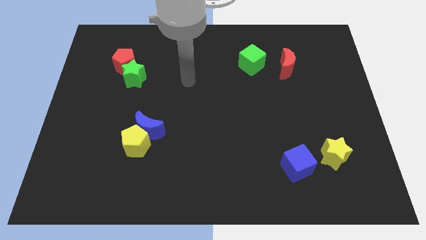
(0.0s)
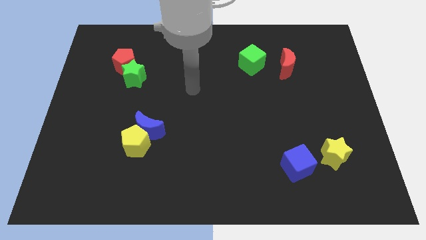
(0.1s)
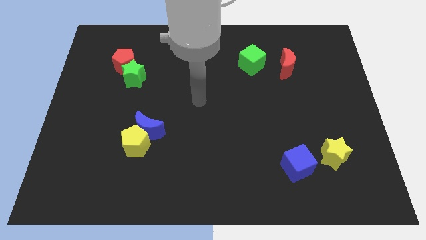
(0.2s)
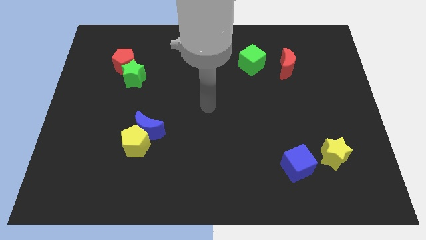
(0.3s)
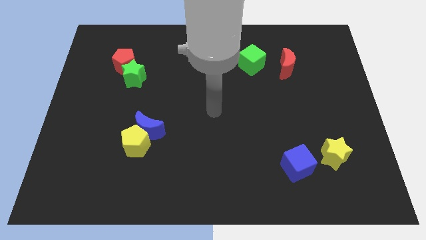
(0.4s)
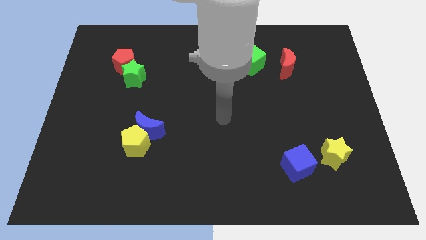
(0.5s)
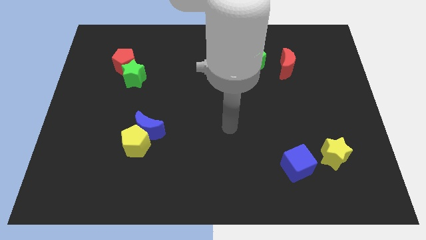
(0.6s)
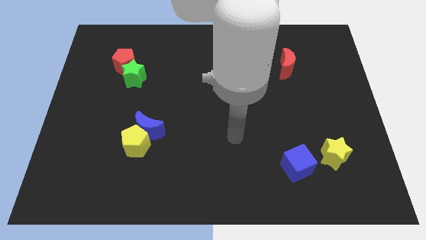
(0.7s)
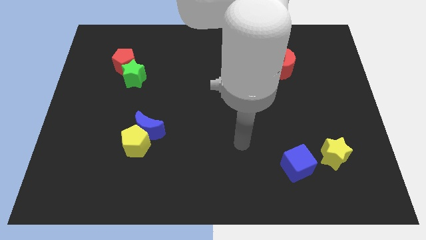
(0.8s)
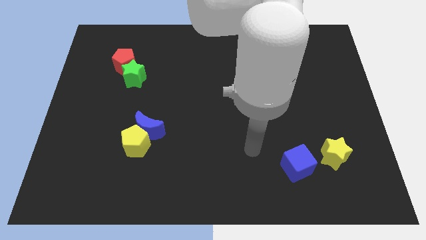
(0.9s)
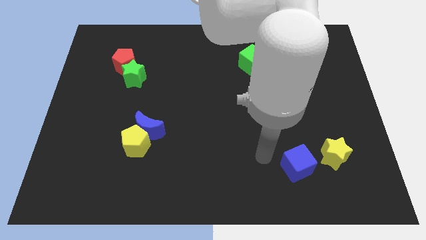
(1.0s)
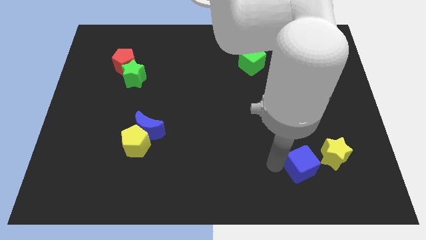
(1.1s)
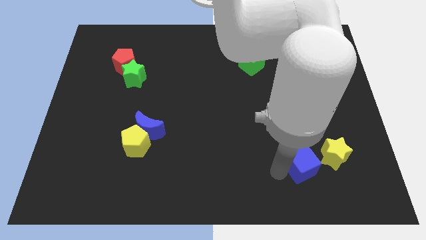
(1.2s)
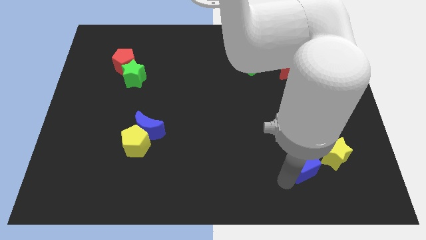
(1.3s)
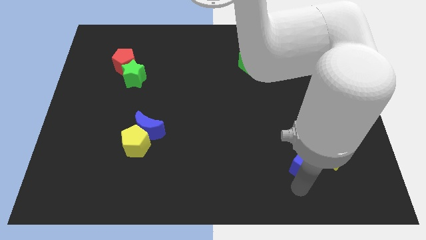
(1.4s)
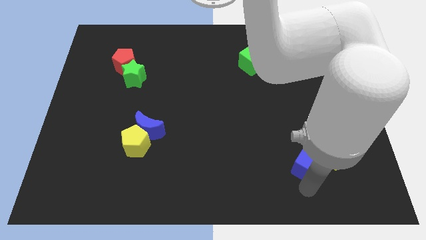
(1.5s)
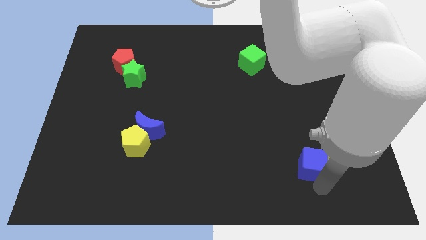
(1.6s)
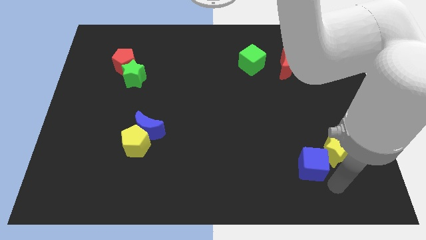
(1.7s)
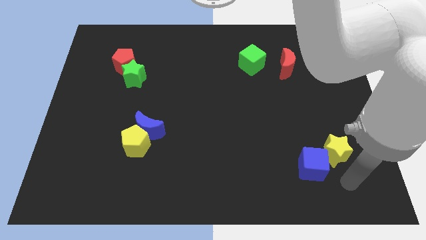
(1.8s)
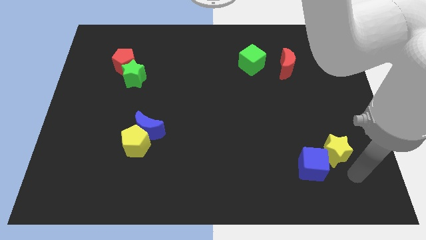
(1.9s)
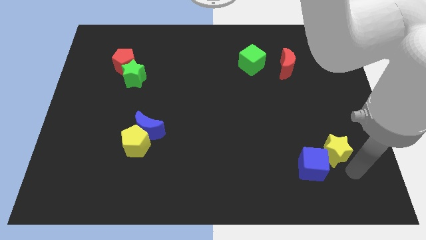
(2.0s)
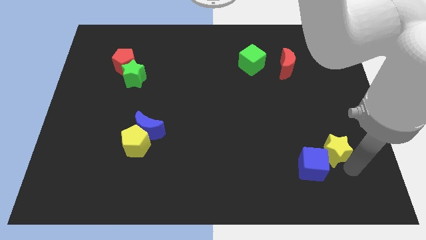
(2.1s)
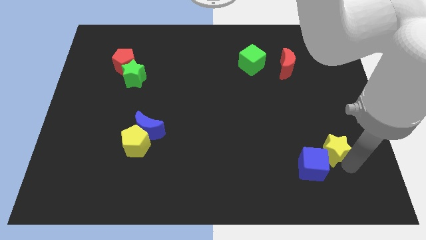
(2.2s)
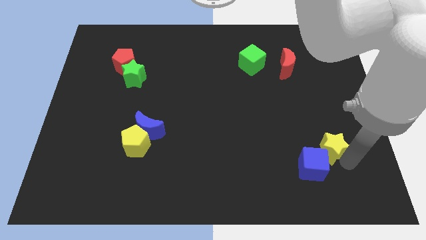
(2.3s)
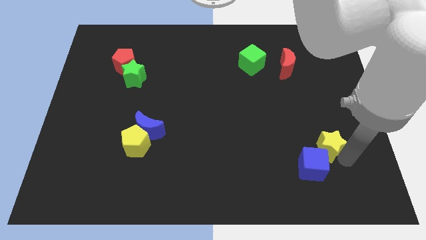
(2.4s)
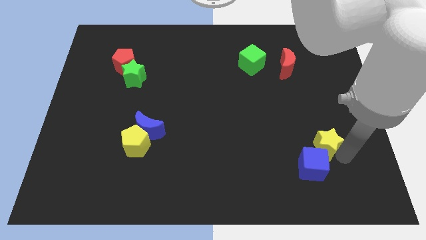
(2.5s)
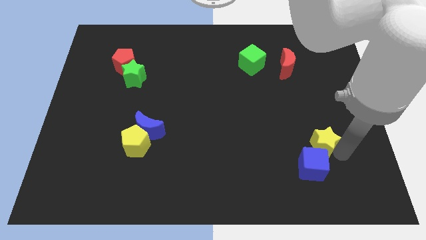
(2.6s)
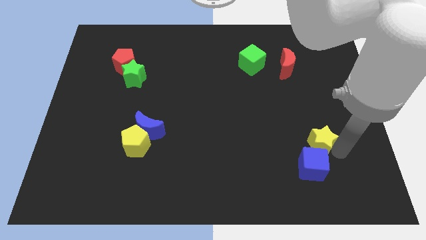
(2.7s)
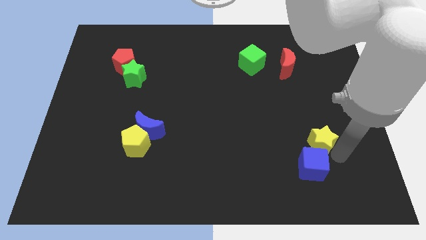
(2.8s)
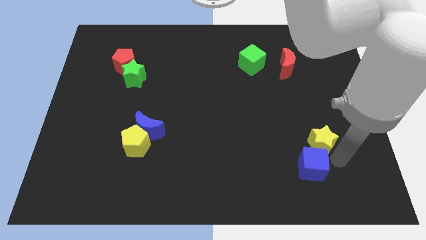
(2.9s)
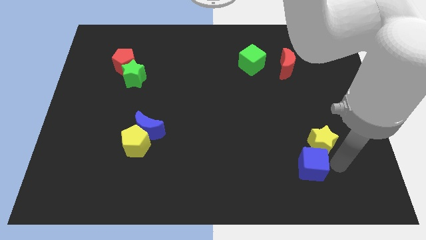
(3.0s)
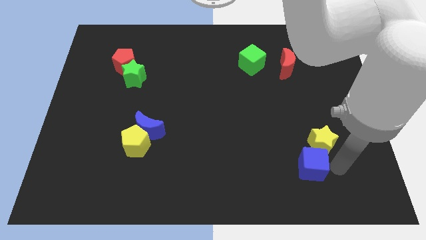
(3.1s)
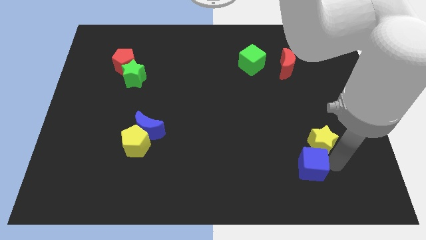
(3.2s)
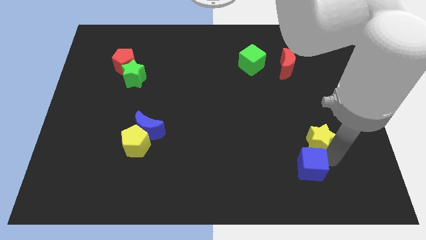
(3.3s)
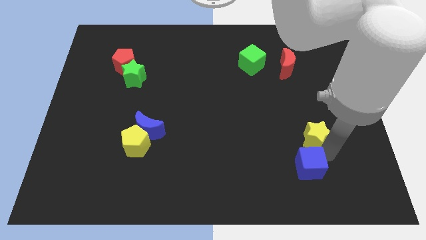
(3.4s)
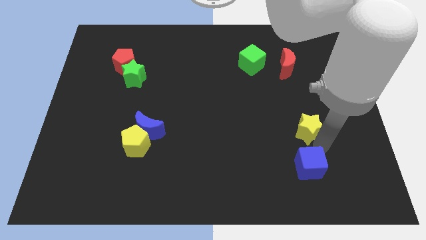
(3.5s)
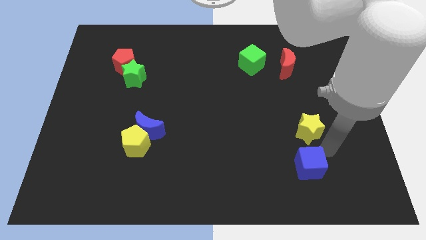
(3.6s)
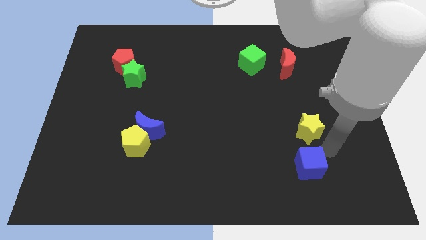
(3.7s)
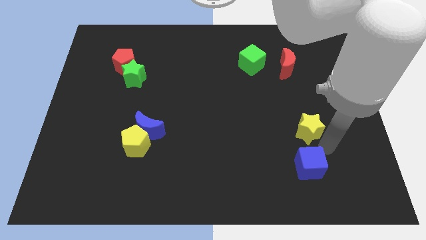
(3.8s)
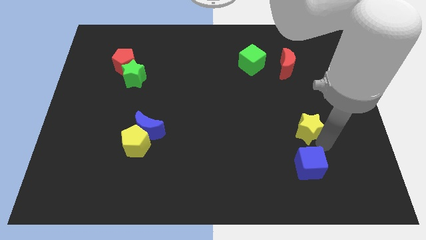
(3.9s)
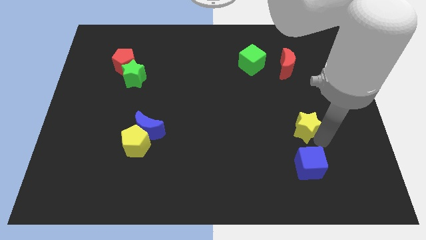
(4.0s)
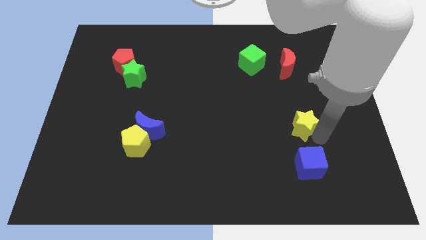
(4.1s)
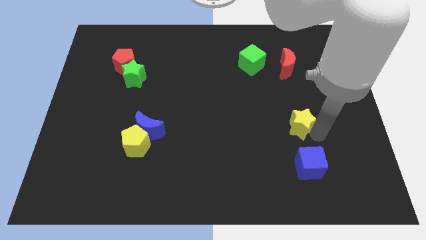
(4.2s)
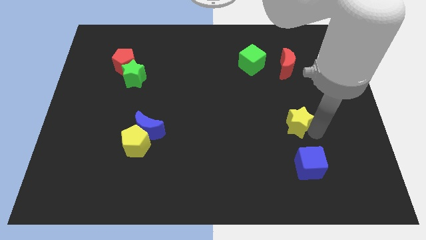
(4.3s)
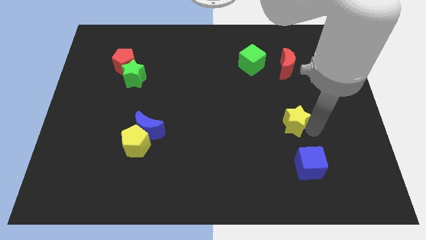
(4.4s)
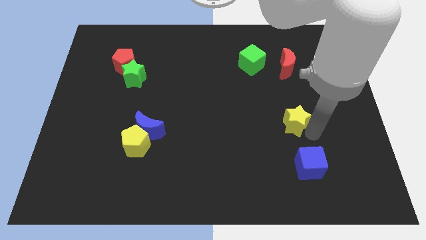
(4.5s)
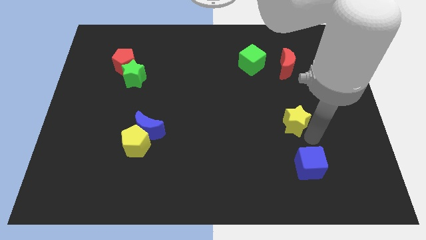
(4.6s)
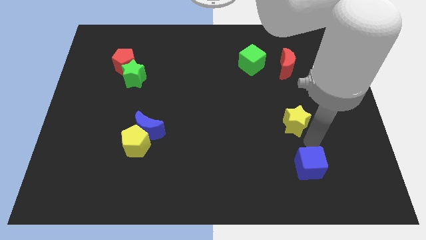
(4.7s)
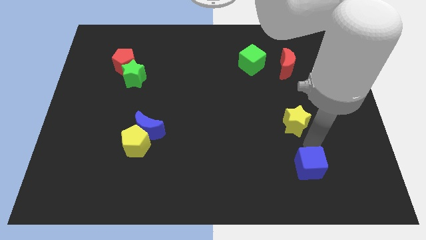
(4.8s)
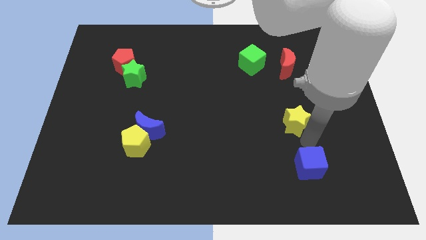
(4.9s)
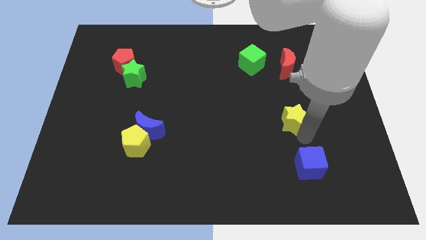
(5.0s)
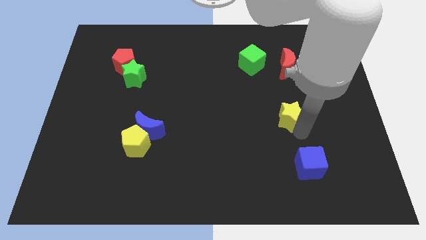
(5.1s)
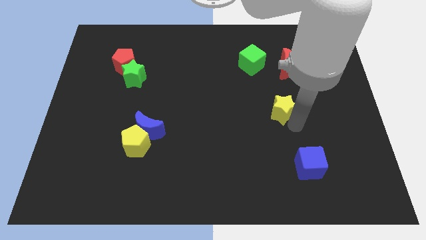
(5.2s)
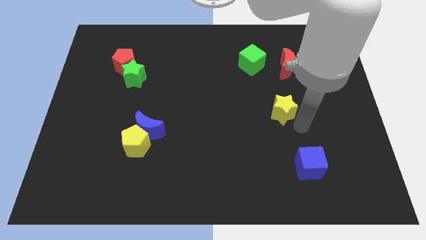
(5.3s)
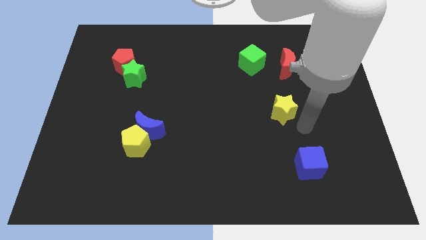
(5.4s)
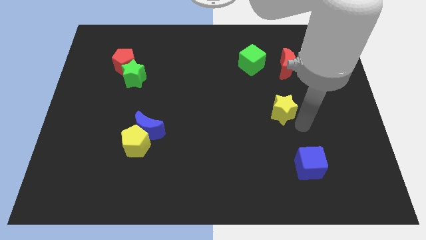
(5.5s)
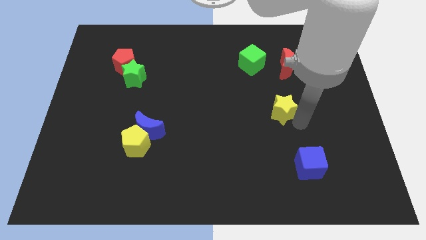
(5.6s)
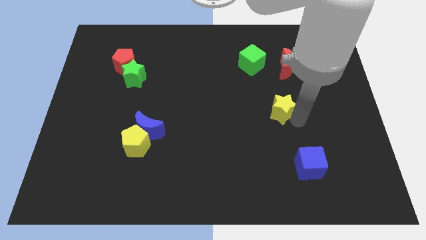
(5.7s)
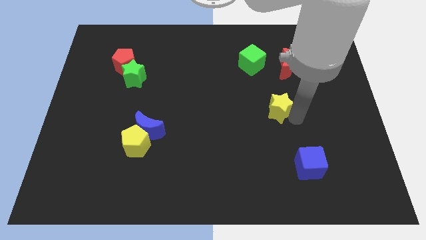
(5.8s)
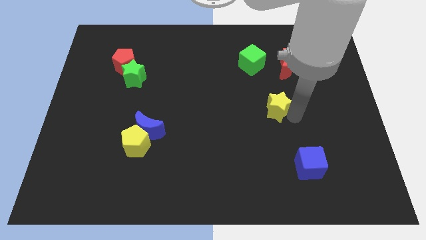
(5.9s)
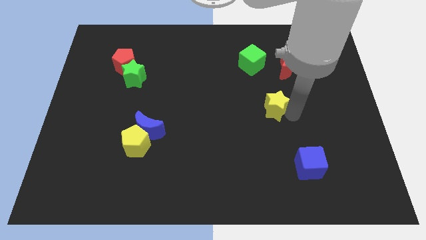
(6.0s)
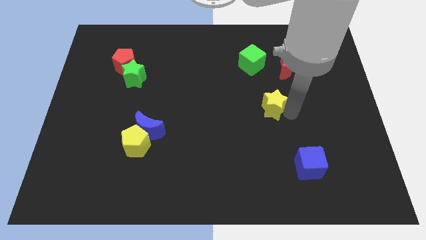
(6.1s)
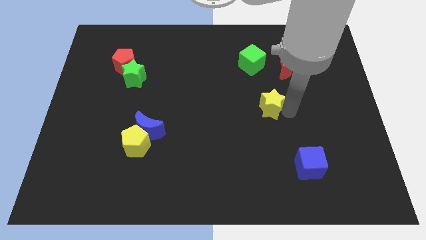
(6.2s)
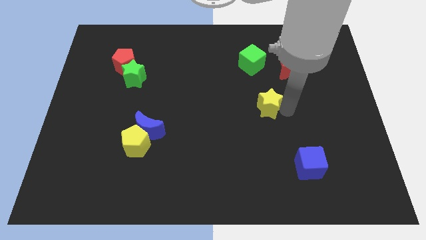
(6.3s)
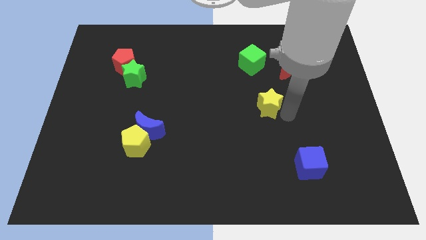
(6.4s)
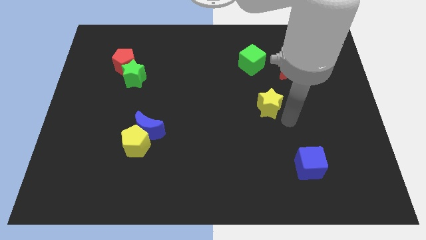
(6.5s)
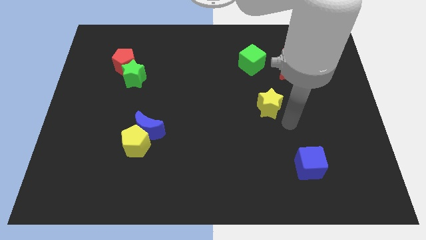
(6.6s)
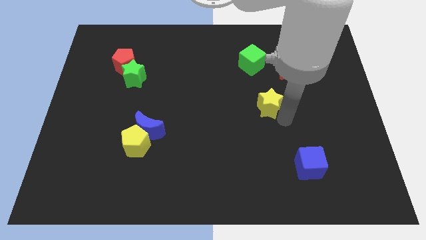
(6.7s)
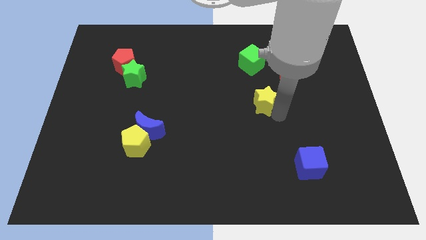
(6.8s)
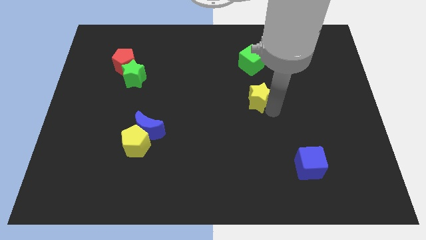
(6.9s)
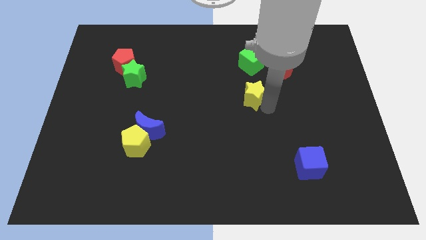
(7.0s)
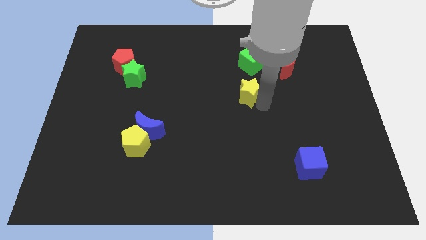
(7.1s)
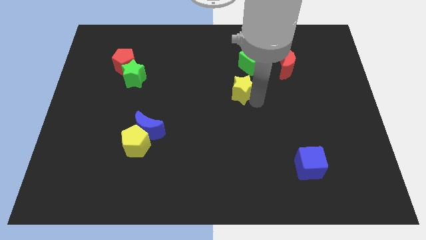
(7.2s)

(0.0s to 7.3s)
push the yellow star diagonally down and to the left of the green cube

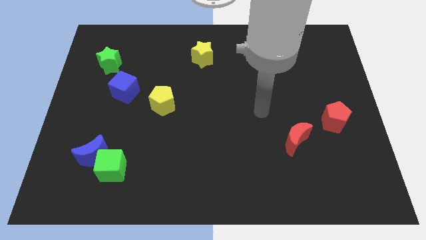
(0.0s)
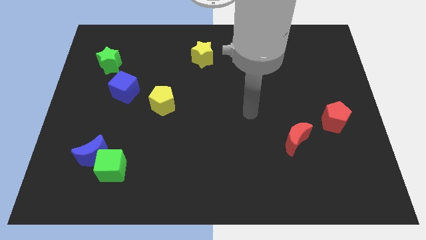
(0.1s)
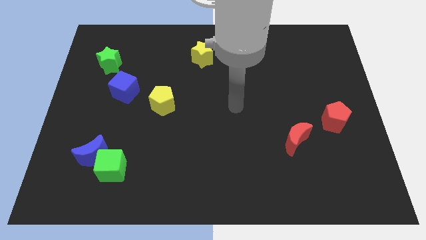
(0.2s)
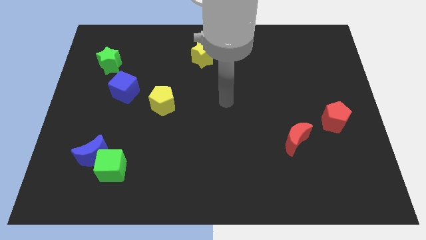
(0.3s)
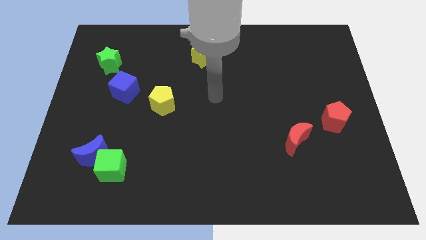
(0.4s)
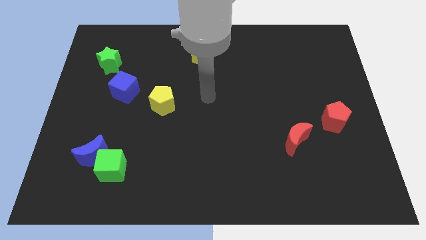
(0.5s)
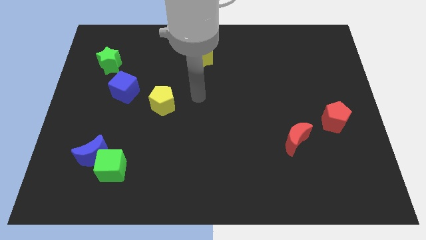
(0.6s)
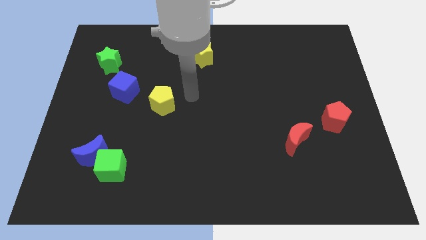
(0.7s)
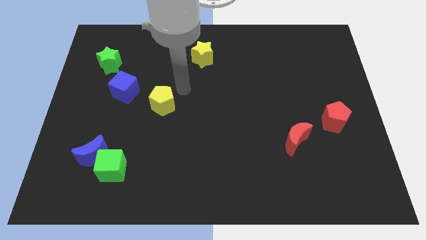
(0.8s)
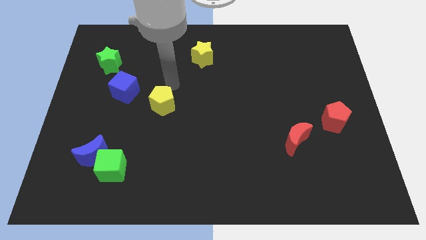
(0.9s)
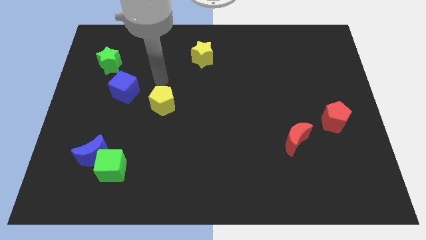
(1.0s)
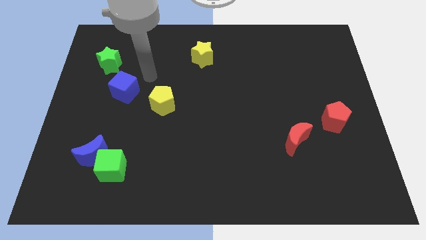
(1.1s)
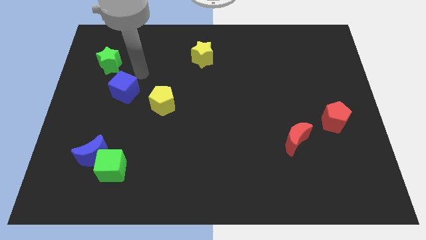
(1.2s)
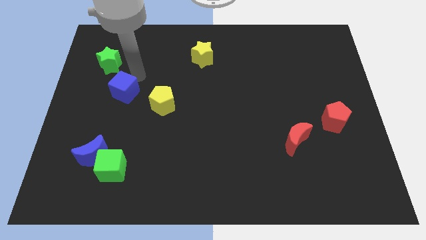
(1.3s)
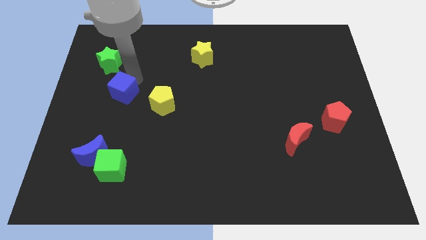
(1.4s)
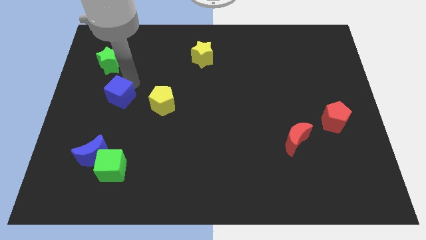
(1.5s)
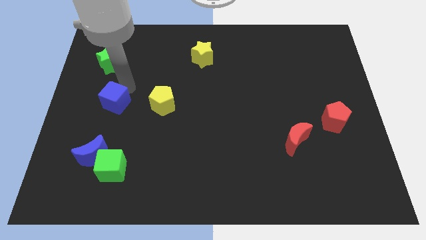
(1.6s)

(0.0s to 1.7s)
slide the blue cube above the blue moon
